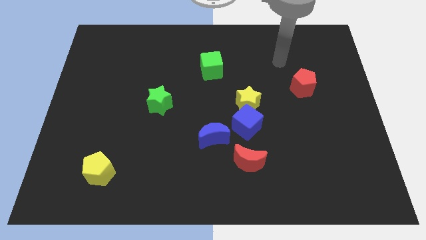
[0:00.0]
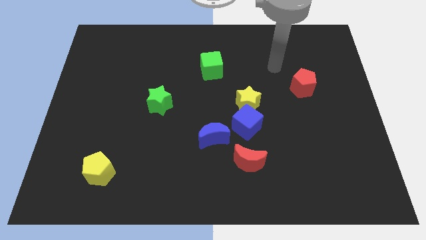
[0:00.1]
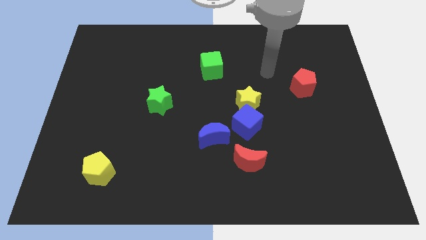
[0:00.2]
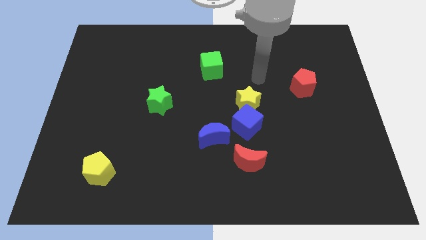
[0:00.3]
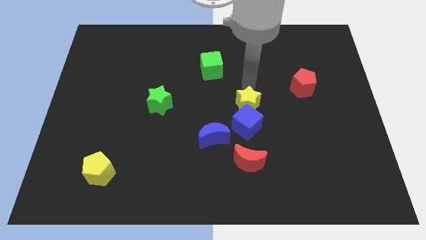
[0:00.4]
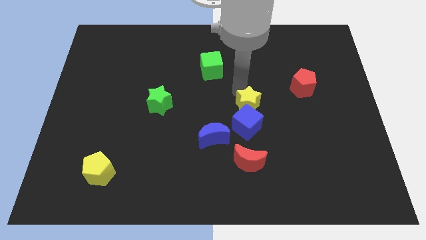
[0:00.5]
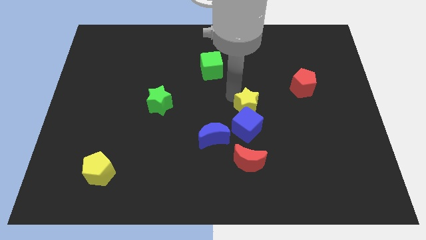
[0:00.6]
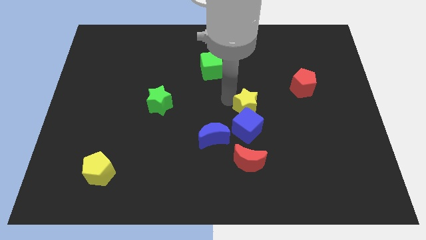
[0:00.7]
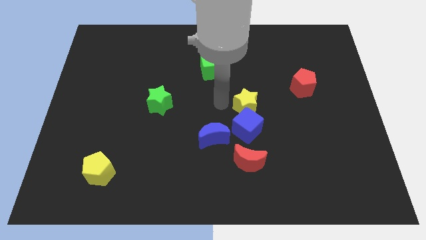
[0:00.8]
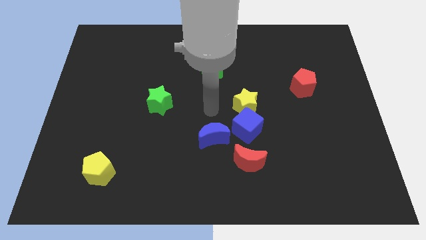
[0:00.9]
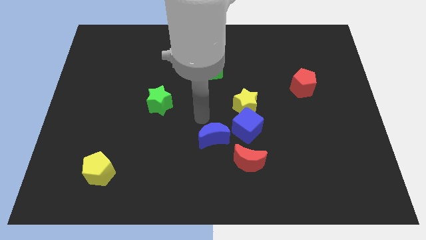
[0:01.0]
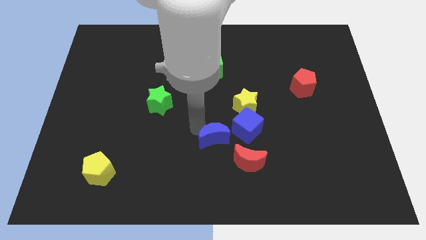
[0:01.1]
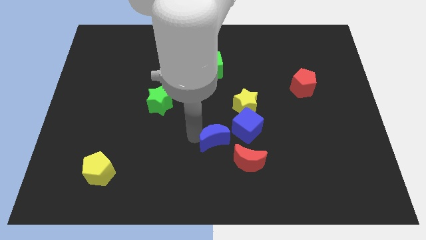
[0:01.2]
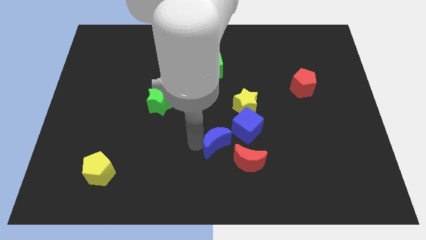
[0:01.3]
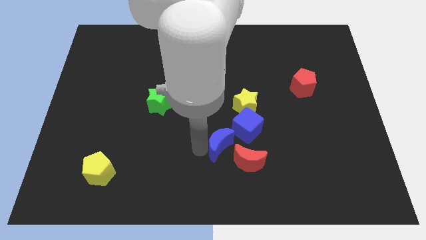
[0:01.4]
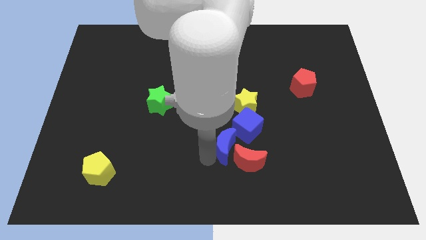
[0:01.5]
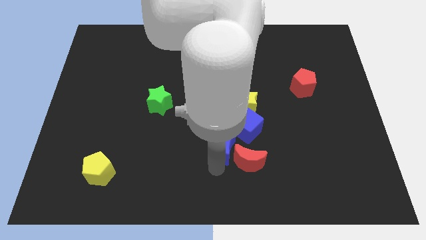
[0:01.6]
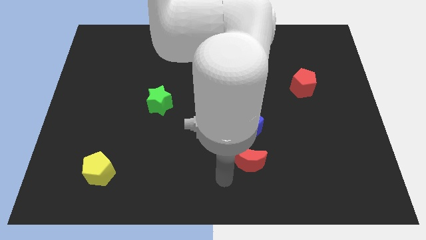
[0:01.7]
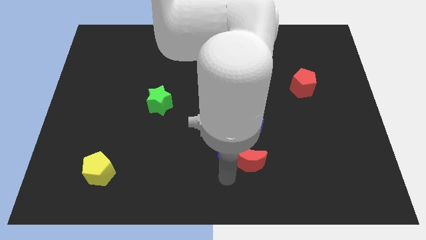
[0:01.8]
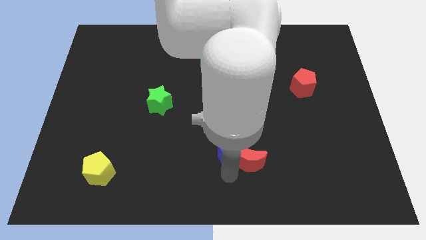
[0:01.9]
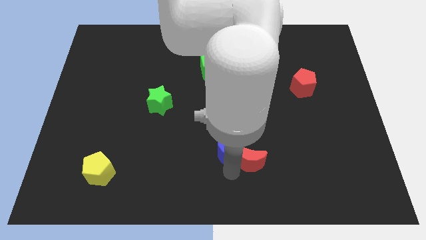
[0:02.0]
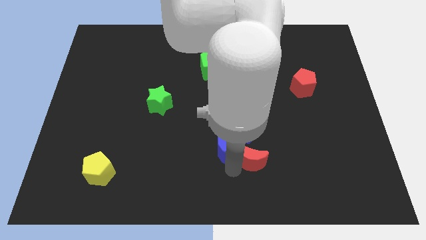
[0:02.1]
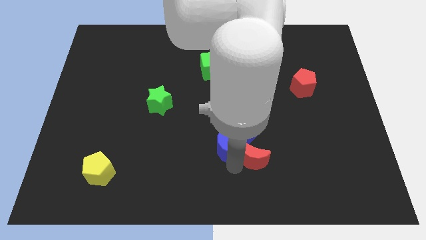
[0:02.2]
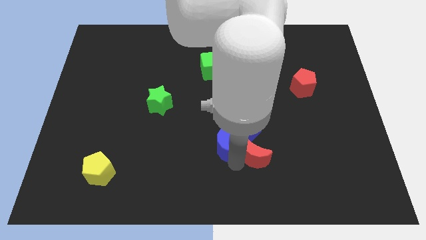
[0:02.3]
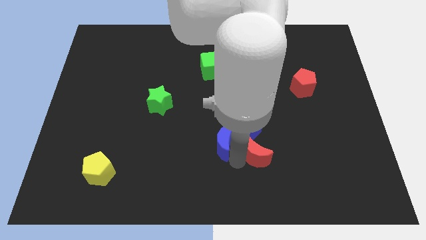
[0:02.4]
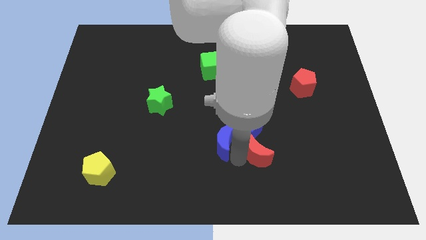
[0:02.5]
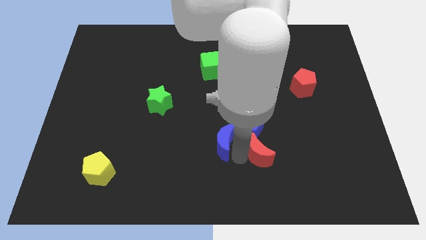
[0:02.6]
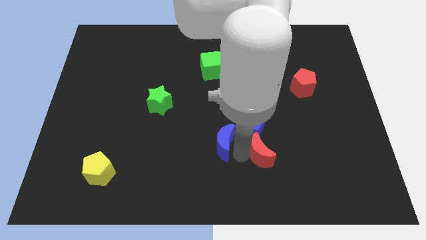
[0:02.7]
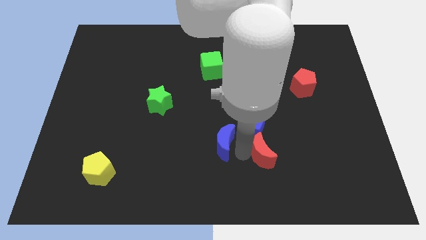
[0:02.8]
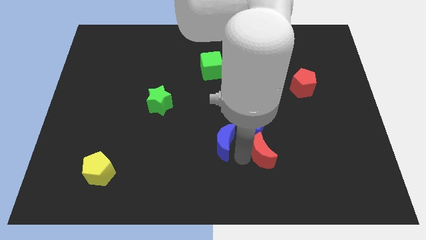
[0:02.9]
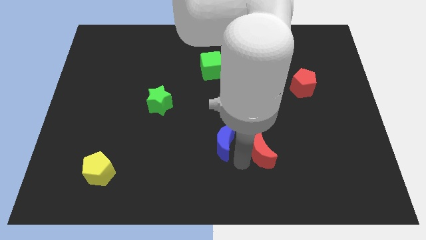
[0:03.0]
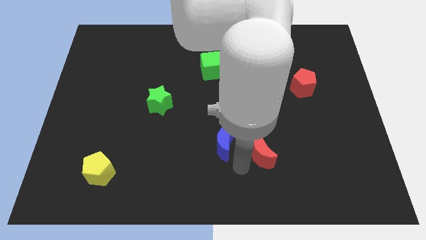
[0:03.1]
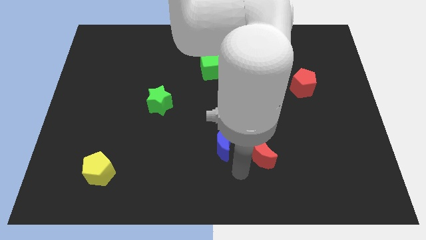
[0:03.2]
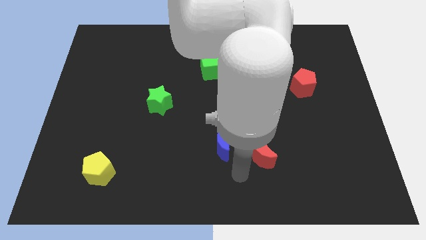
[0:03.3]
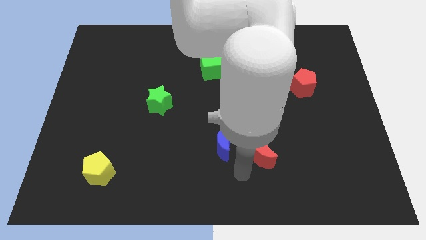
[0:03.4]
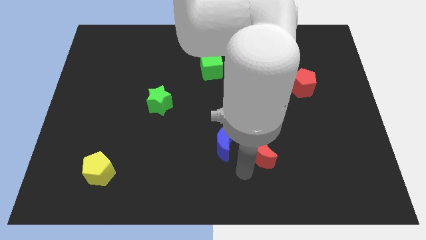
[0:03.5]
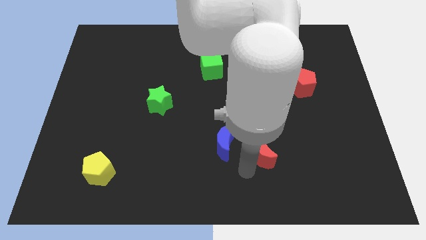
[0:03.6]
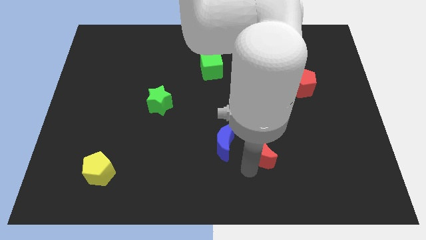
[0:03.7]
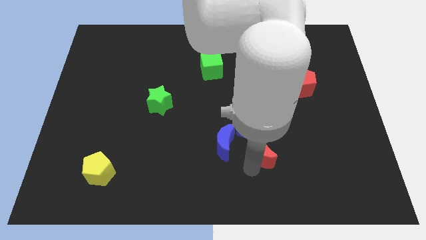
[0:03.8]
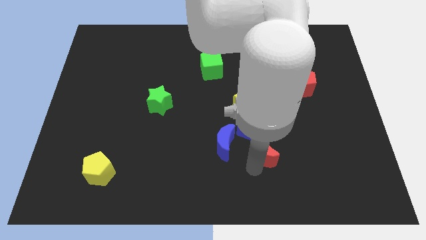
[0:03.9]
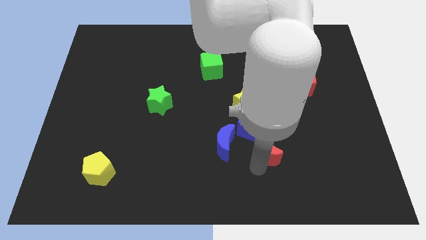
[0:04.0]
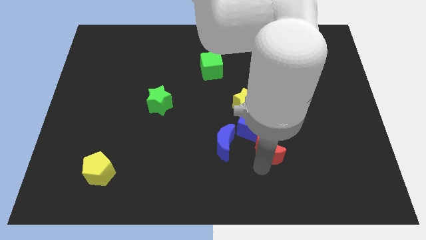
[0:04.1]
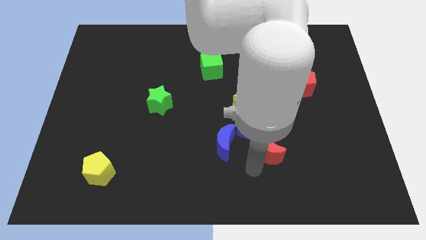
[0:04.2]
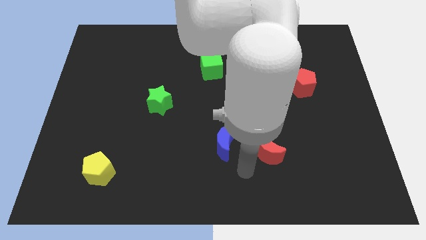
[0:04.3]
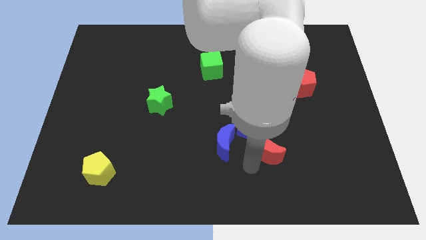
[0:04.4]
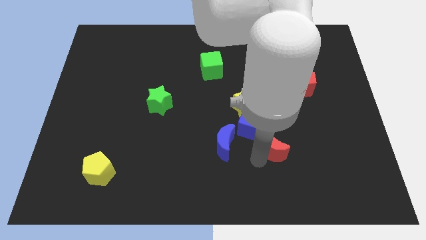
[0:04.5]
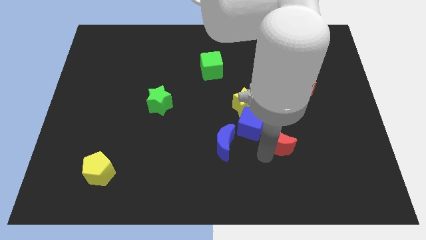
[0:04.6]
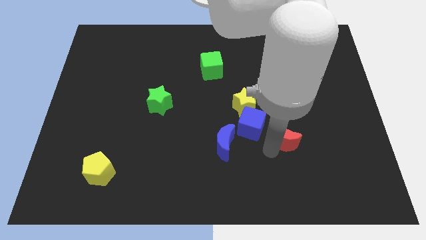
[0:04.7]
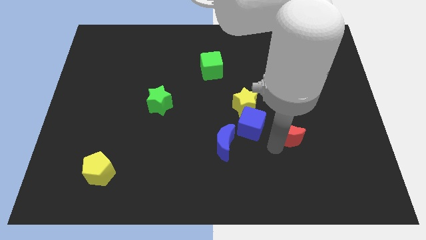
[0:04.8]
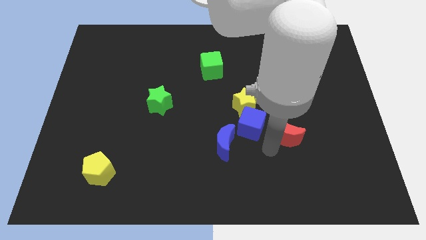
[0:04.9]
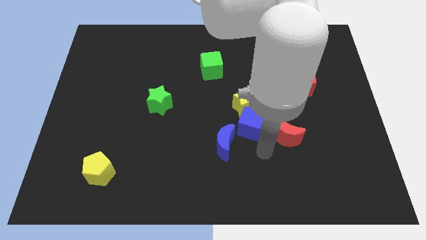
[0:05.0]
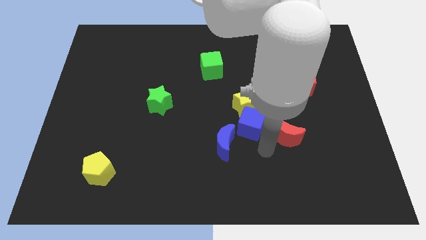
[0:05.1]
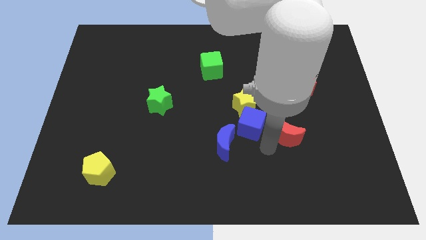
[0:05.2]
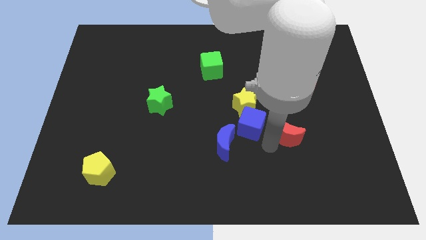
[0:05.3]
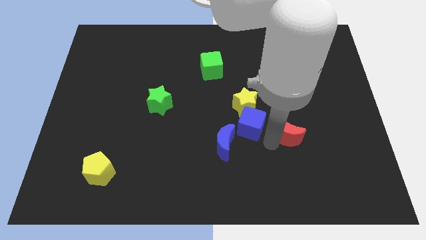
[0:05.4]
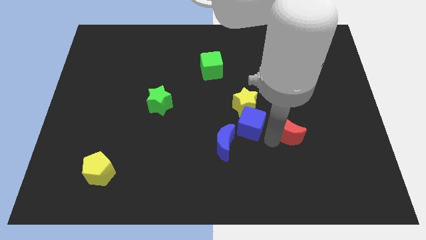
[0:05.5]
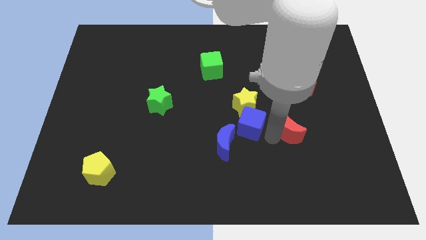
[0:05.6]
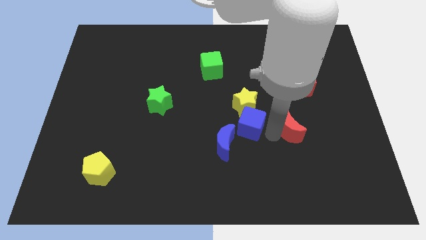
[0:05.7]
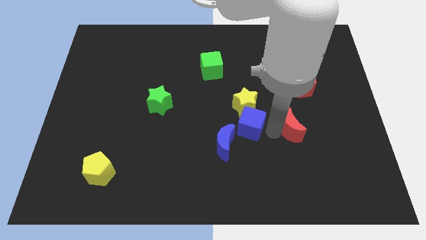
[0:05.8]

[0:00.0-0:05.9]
push the red moon below the red pentagon

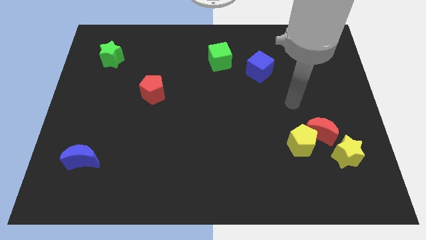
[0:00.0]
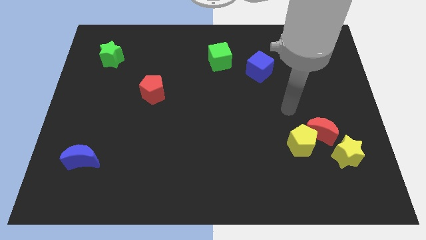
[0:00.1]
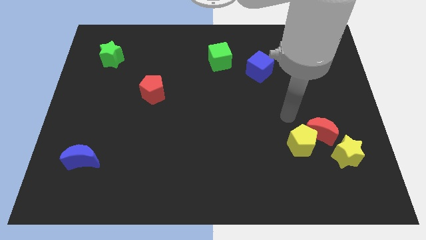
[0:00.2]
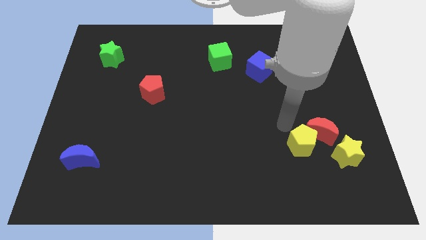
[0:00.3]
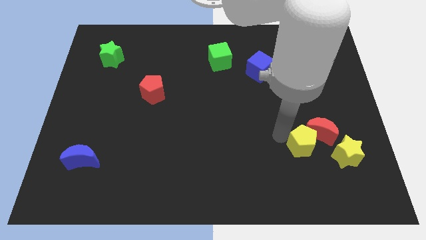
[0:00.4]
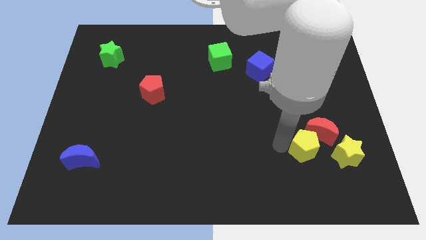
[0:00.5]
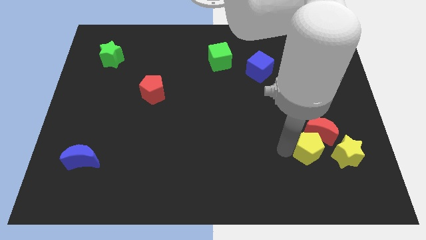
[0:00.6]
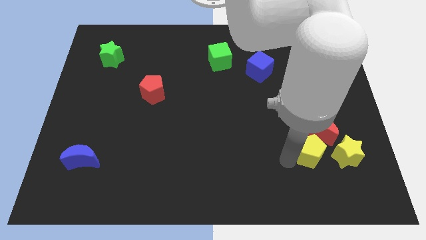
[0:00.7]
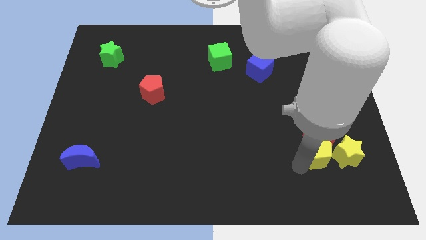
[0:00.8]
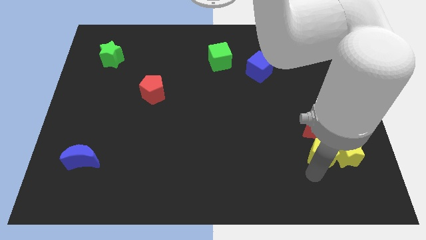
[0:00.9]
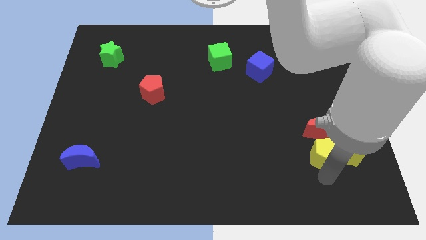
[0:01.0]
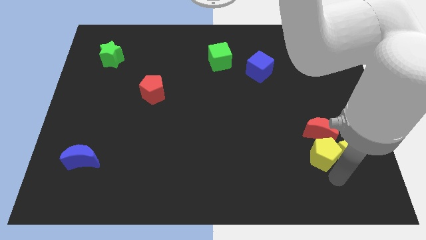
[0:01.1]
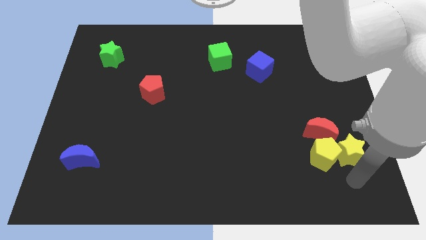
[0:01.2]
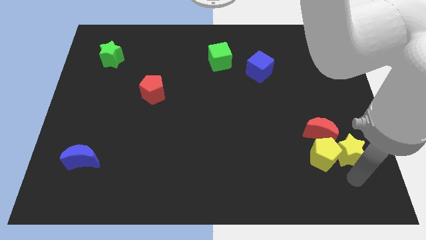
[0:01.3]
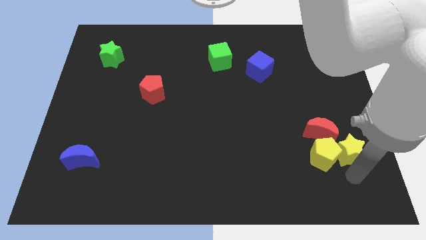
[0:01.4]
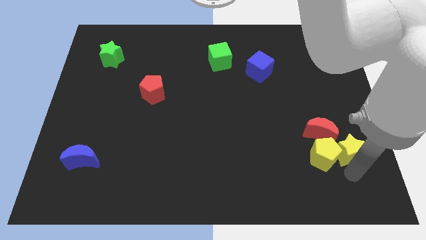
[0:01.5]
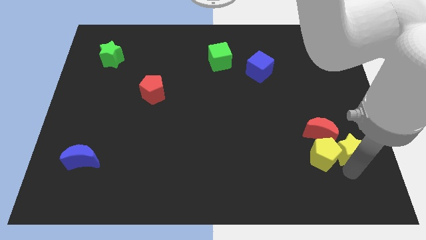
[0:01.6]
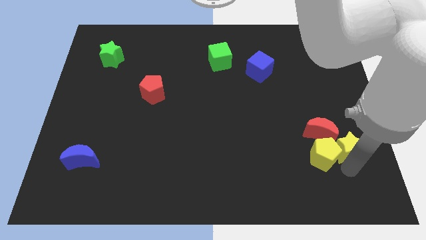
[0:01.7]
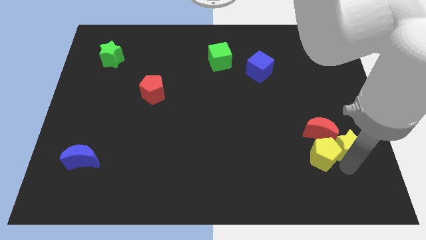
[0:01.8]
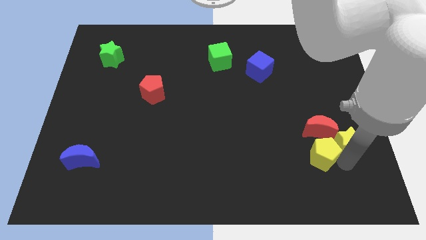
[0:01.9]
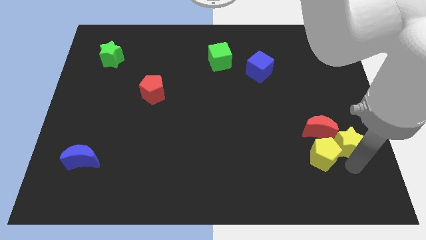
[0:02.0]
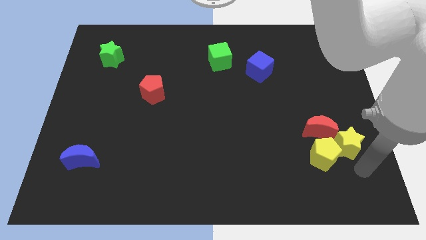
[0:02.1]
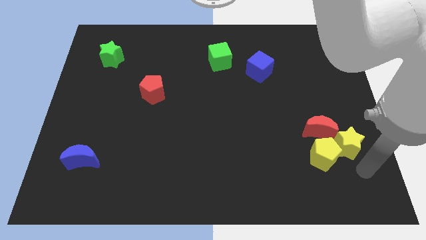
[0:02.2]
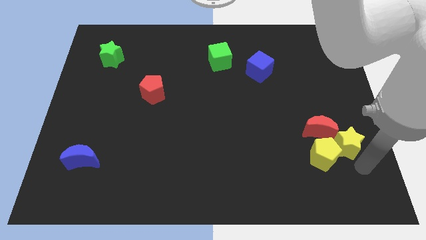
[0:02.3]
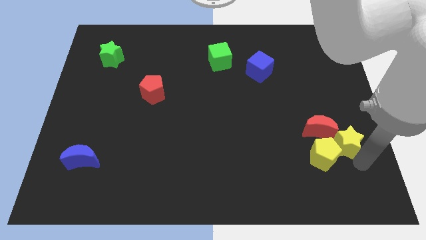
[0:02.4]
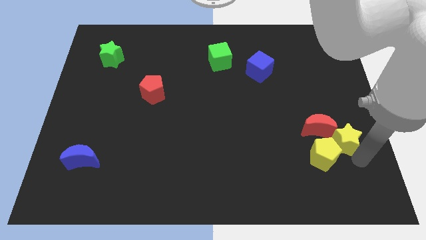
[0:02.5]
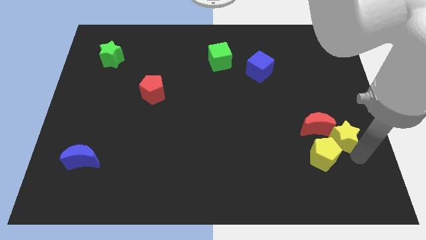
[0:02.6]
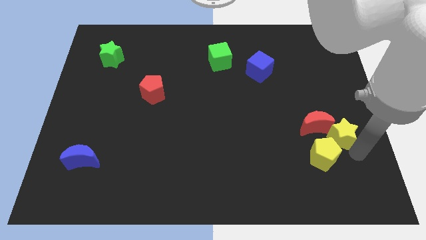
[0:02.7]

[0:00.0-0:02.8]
slide the yellow star to the top of the yellow pentagon
